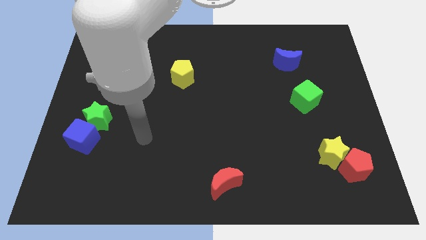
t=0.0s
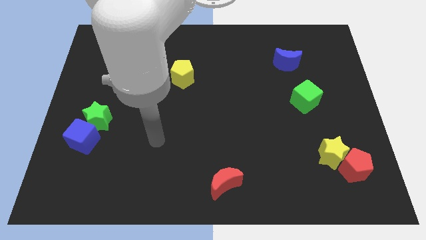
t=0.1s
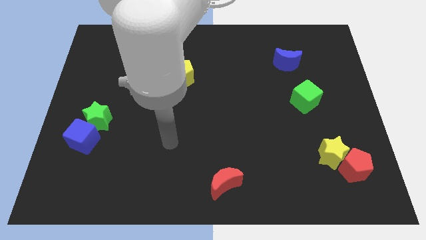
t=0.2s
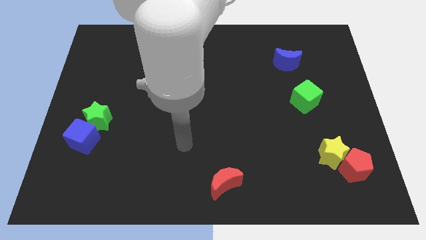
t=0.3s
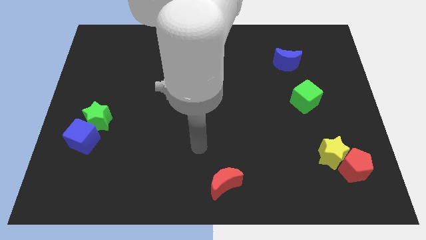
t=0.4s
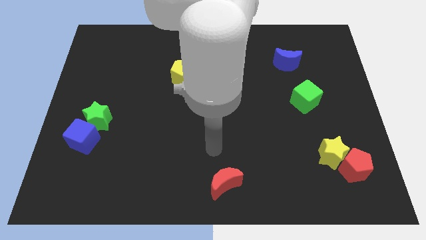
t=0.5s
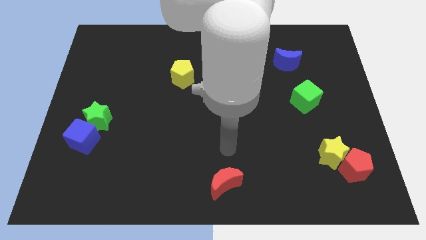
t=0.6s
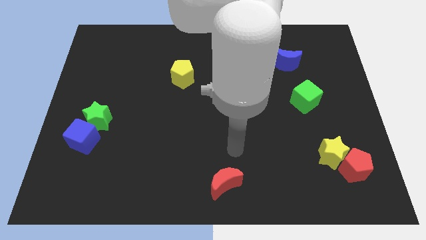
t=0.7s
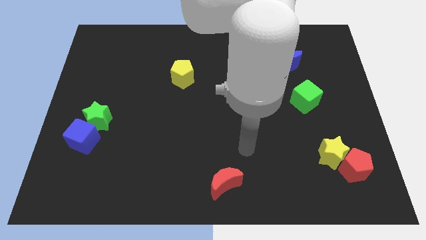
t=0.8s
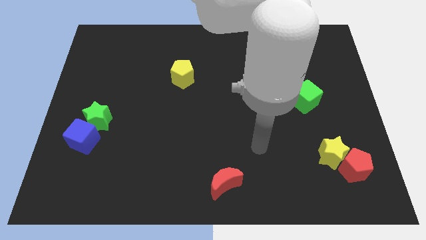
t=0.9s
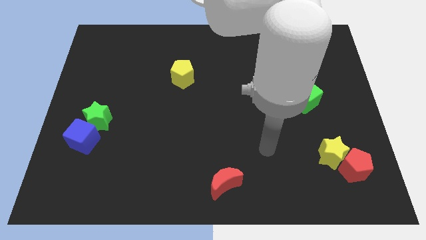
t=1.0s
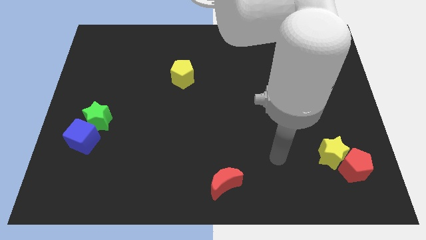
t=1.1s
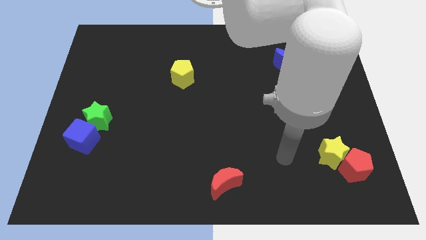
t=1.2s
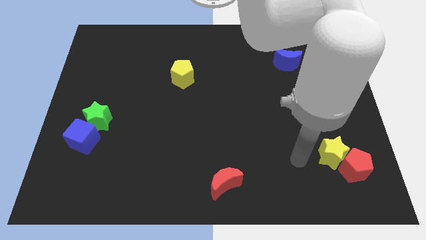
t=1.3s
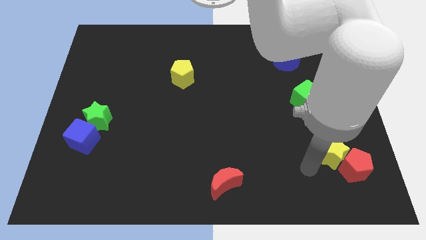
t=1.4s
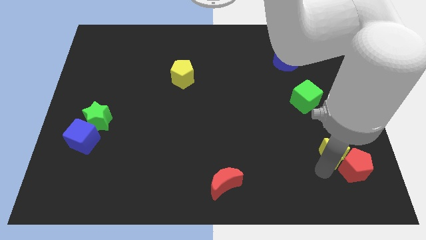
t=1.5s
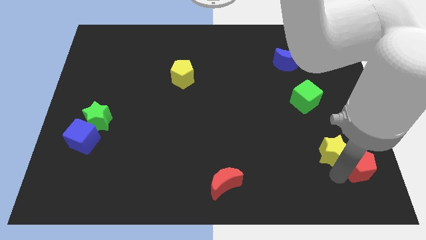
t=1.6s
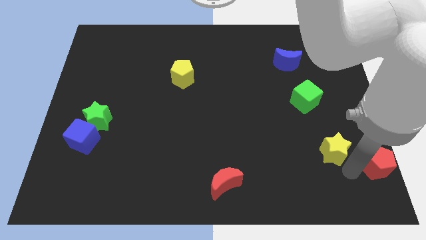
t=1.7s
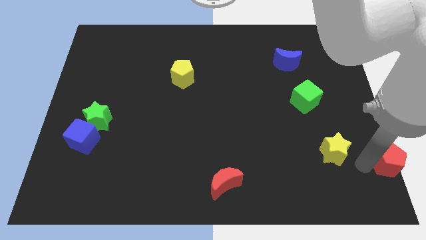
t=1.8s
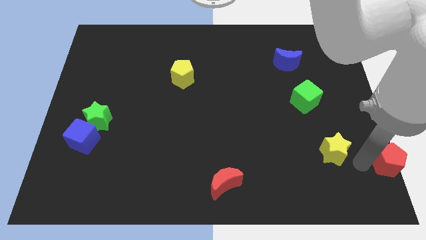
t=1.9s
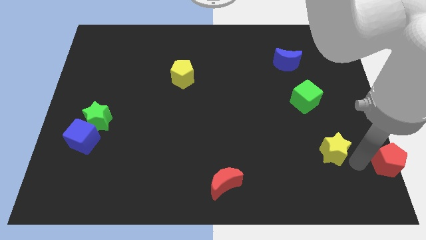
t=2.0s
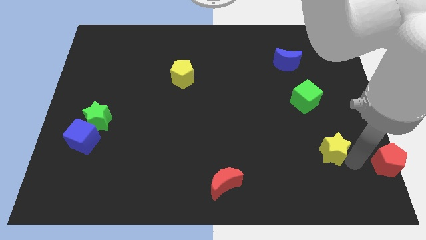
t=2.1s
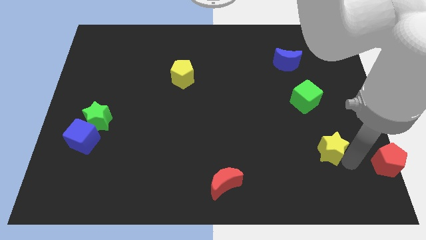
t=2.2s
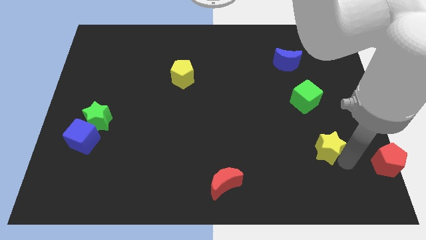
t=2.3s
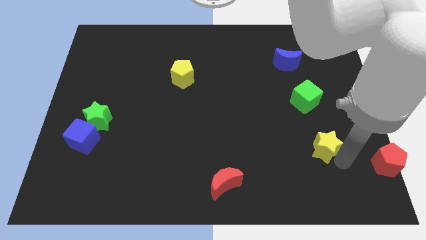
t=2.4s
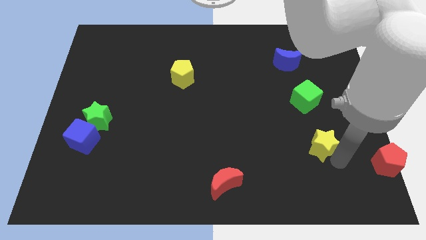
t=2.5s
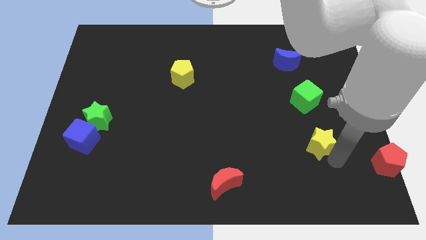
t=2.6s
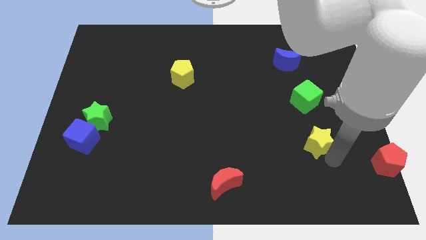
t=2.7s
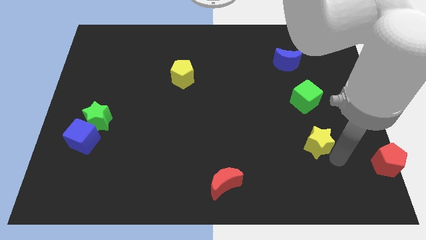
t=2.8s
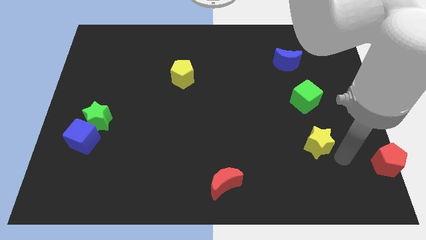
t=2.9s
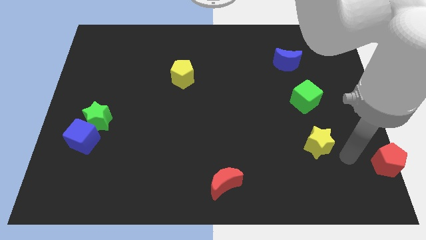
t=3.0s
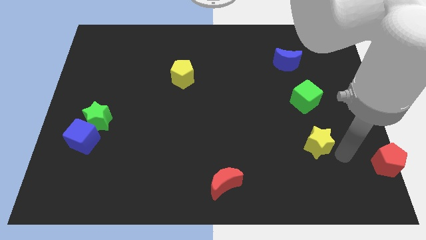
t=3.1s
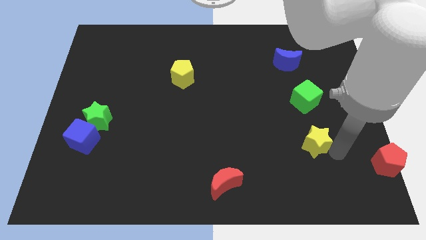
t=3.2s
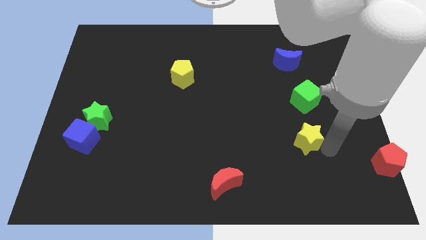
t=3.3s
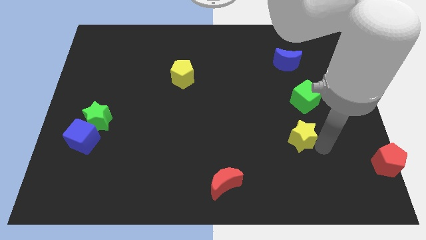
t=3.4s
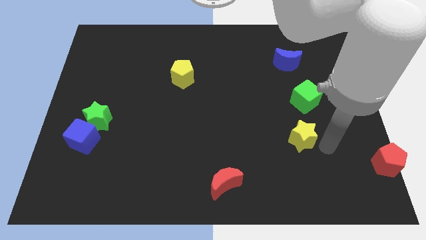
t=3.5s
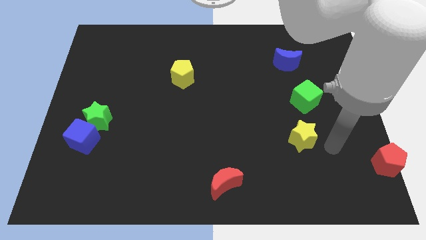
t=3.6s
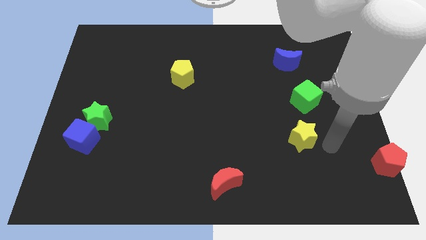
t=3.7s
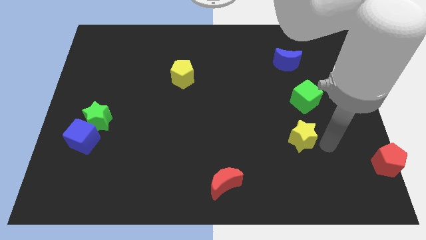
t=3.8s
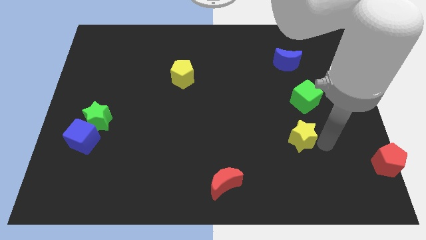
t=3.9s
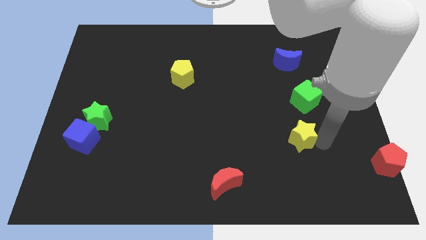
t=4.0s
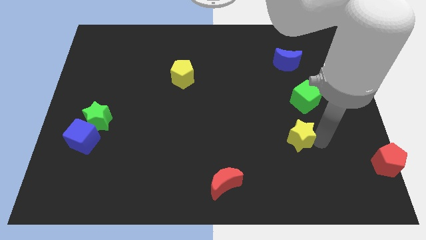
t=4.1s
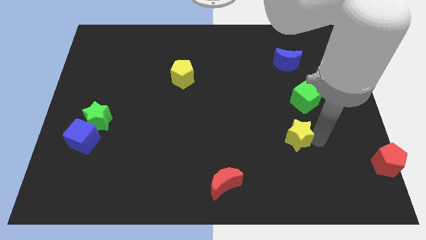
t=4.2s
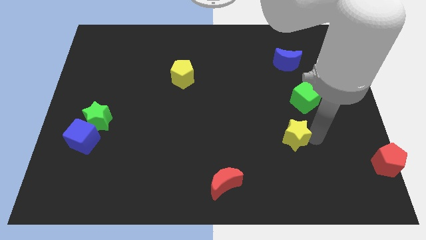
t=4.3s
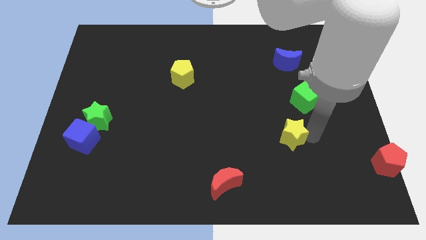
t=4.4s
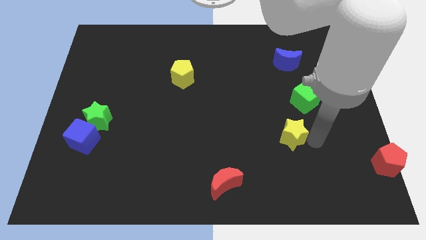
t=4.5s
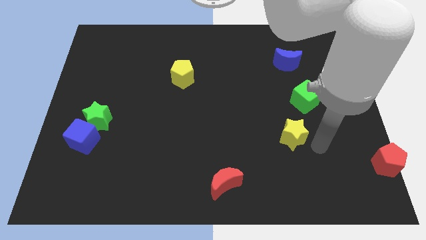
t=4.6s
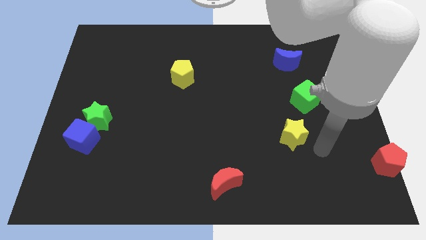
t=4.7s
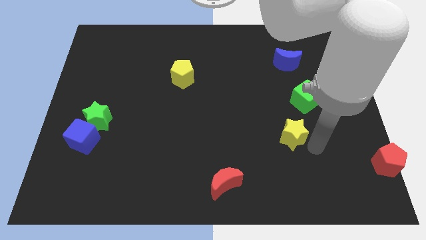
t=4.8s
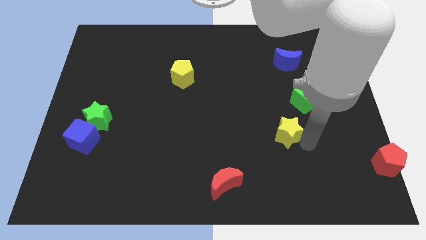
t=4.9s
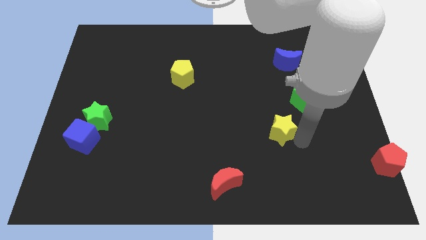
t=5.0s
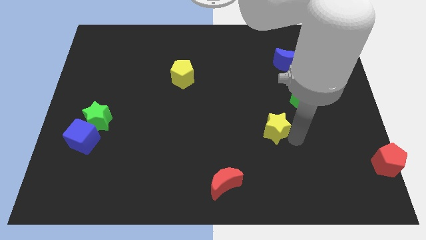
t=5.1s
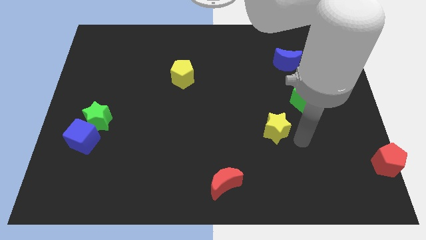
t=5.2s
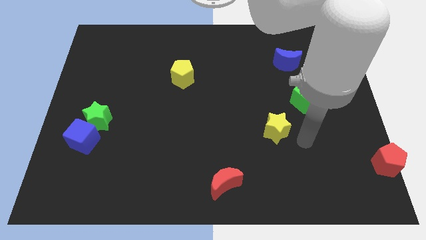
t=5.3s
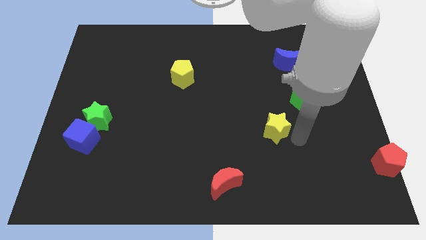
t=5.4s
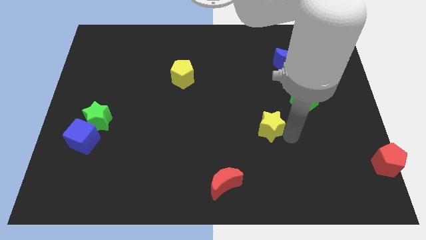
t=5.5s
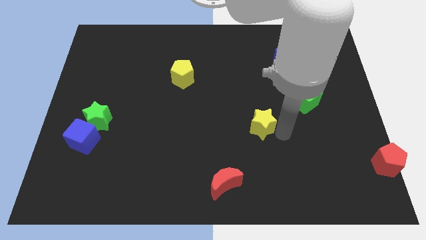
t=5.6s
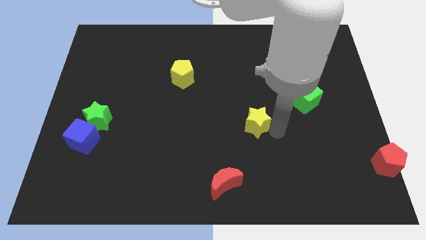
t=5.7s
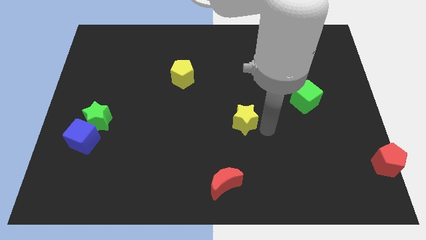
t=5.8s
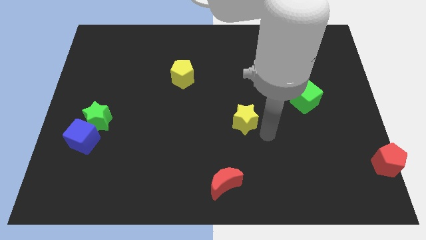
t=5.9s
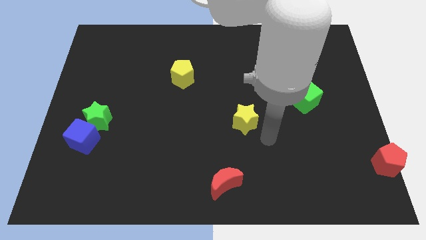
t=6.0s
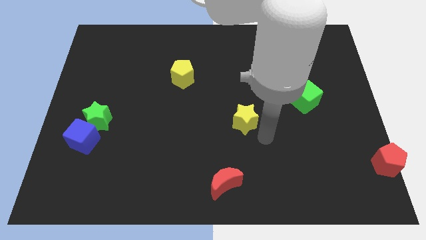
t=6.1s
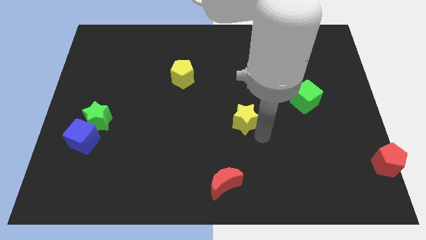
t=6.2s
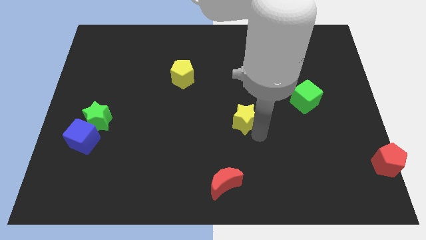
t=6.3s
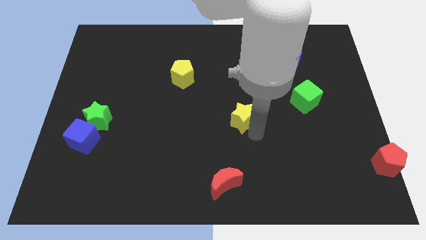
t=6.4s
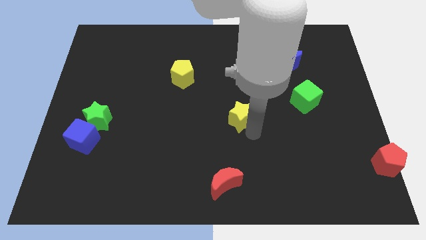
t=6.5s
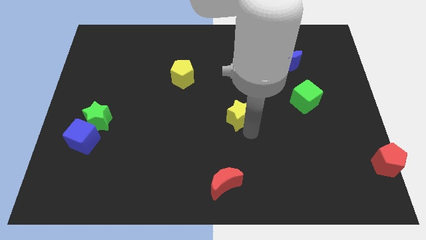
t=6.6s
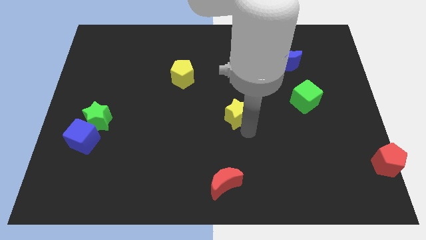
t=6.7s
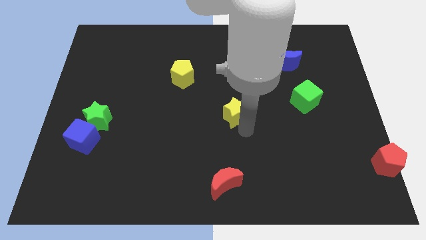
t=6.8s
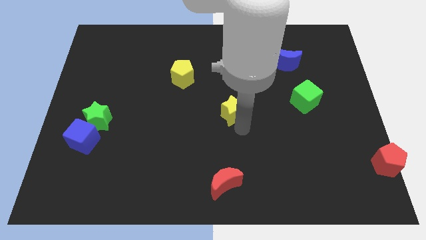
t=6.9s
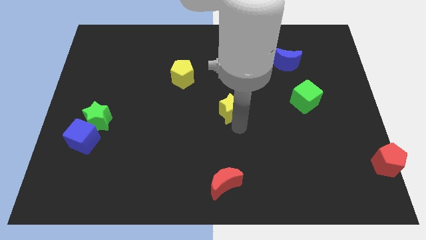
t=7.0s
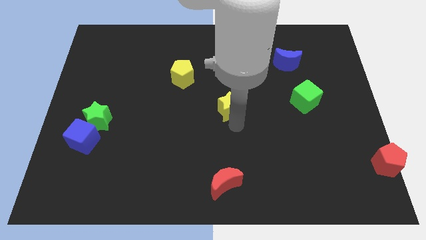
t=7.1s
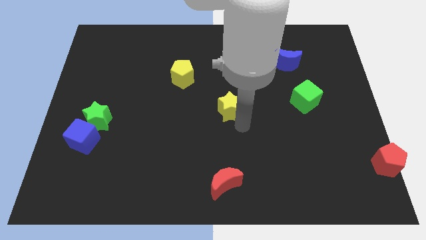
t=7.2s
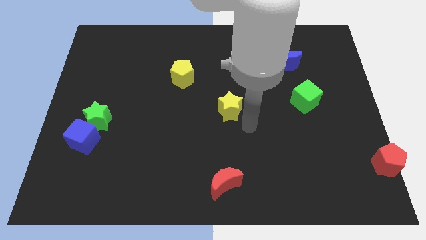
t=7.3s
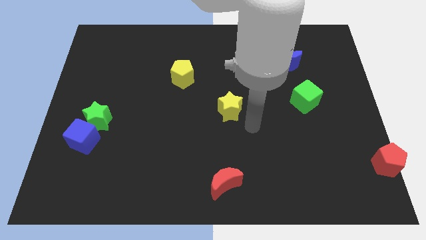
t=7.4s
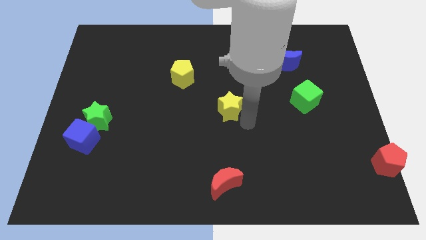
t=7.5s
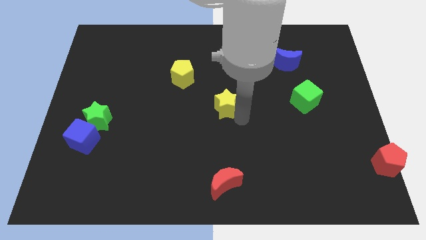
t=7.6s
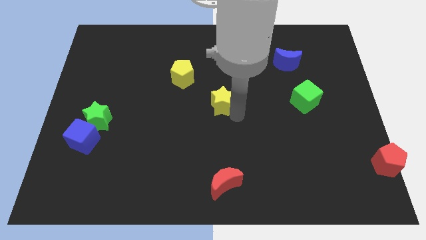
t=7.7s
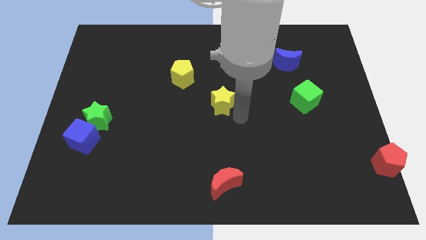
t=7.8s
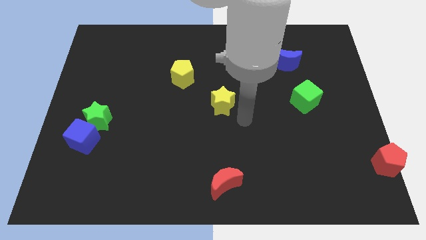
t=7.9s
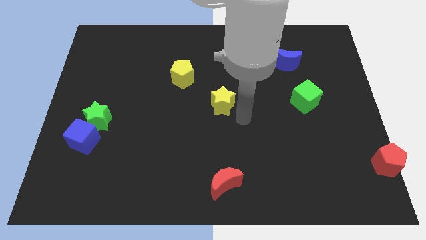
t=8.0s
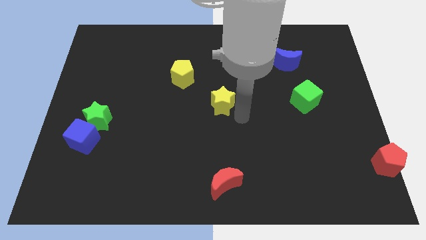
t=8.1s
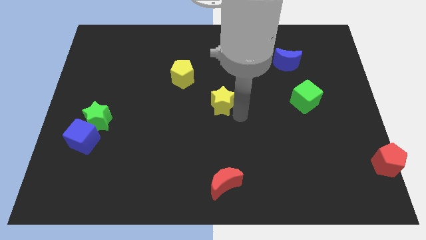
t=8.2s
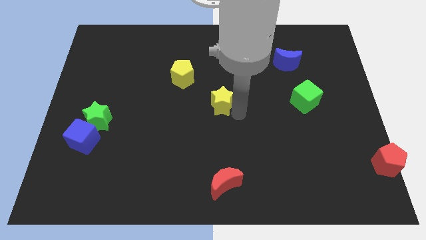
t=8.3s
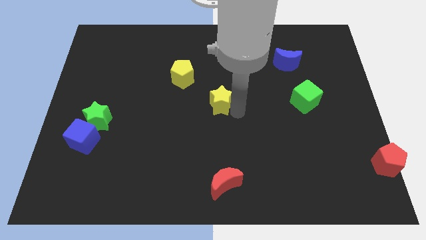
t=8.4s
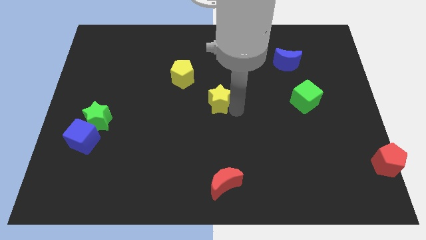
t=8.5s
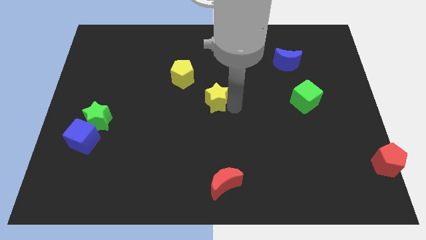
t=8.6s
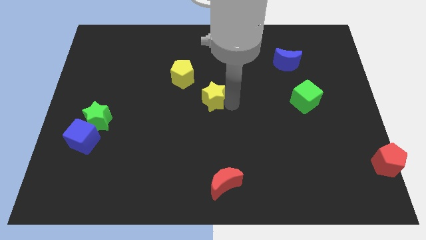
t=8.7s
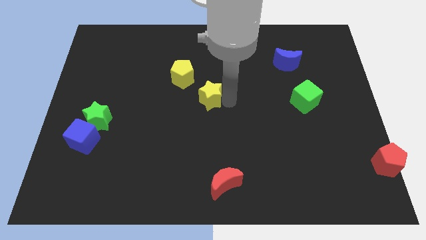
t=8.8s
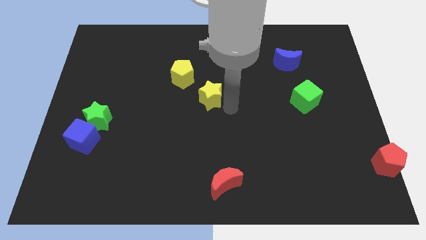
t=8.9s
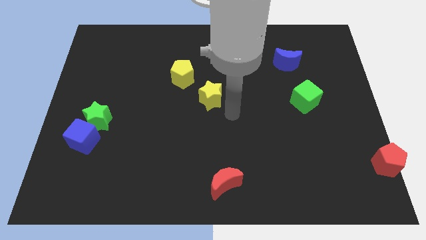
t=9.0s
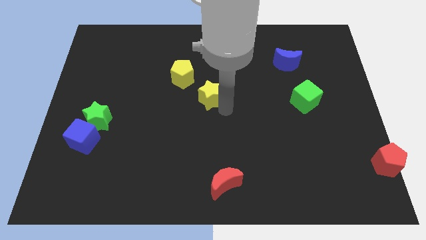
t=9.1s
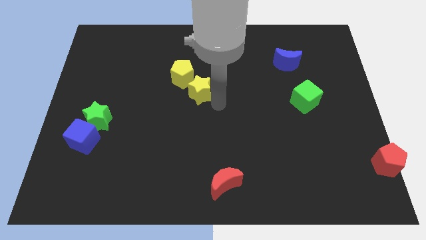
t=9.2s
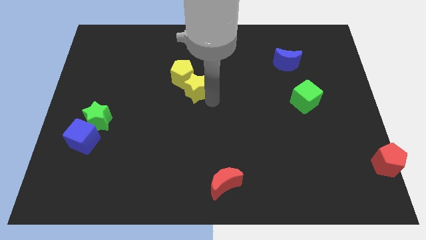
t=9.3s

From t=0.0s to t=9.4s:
slide the yellow star to the yellow pentagon
